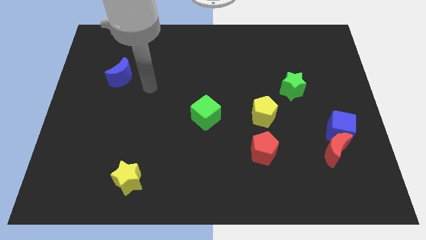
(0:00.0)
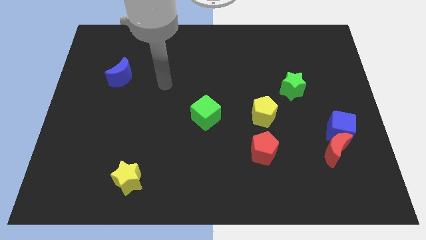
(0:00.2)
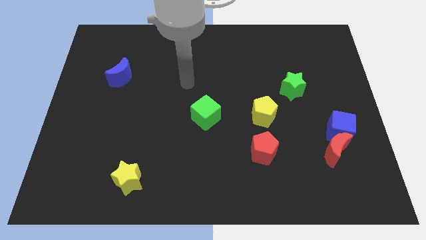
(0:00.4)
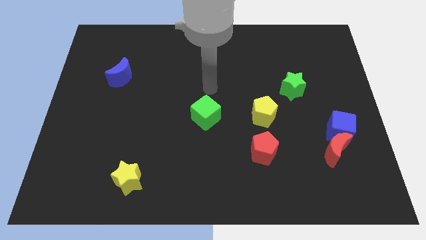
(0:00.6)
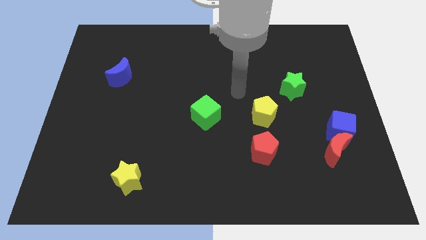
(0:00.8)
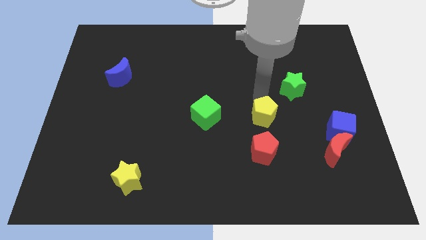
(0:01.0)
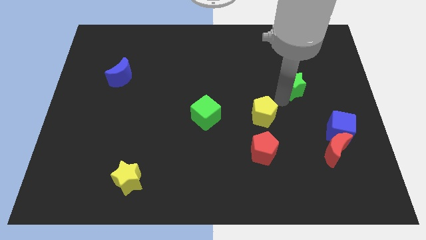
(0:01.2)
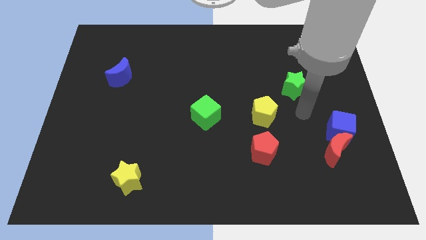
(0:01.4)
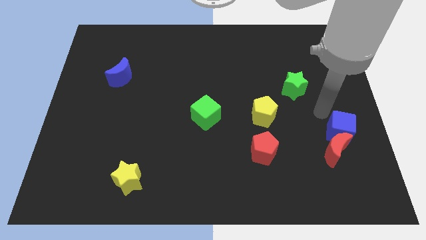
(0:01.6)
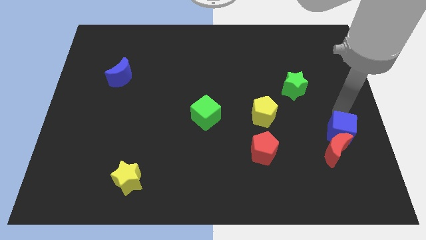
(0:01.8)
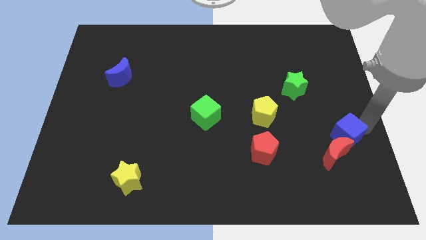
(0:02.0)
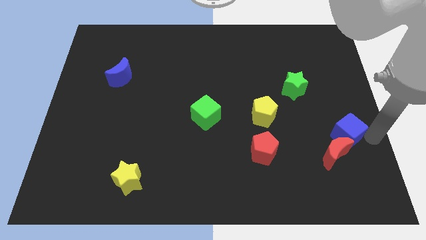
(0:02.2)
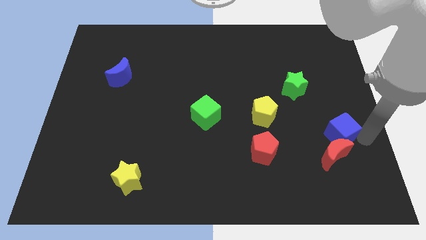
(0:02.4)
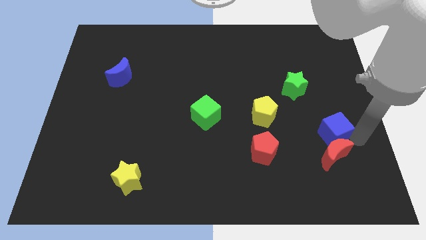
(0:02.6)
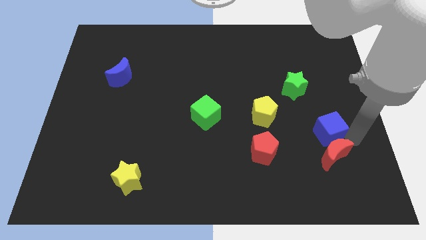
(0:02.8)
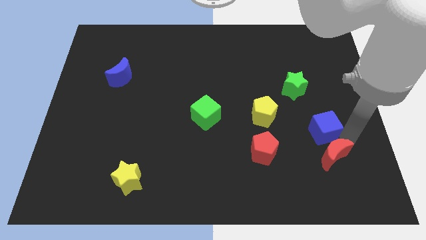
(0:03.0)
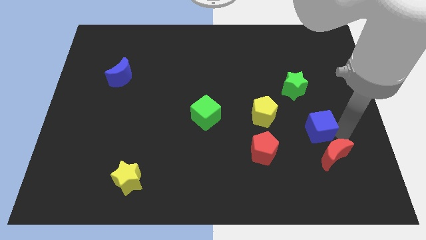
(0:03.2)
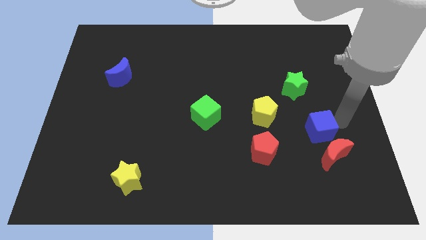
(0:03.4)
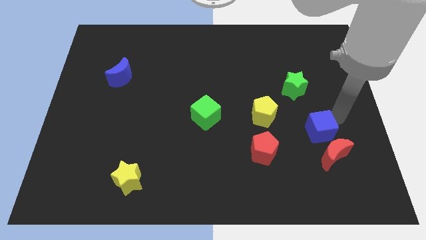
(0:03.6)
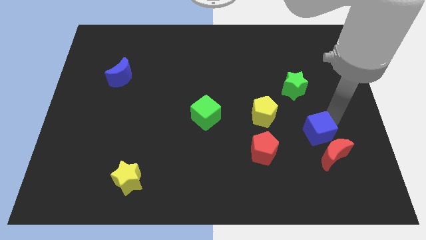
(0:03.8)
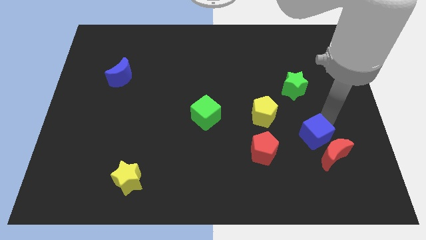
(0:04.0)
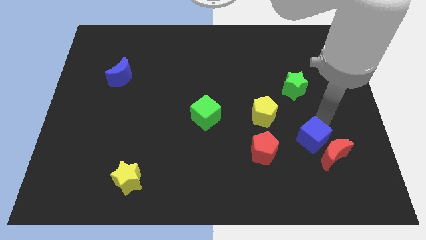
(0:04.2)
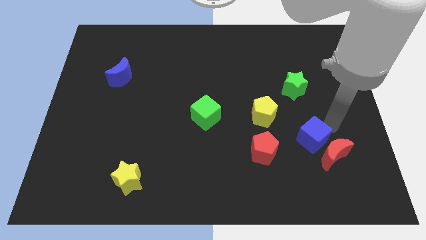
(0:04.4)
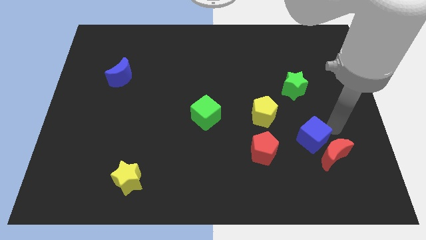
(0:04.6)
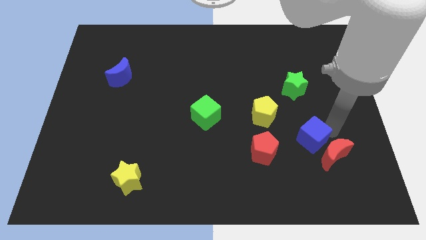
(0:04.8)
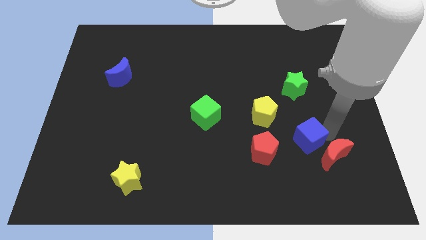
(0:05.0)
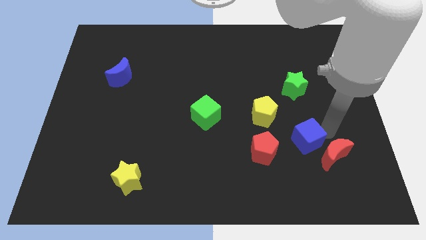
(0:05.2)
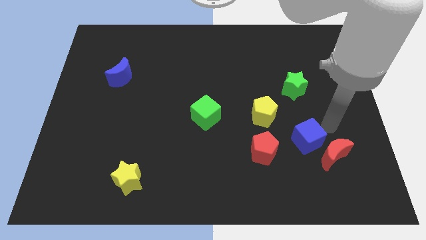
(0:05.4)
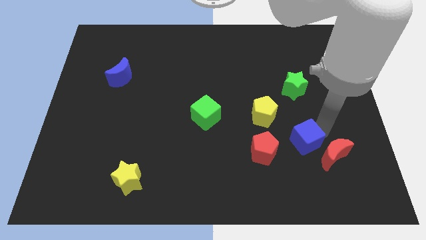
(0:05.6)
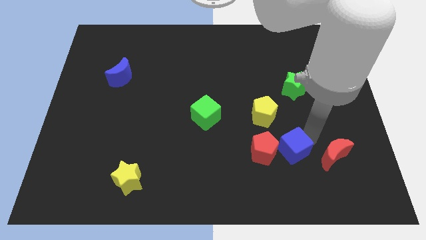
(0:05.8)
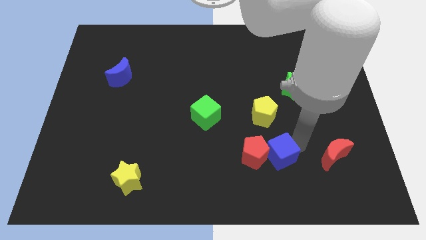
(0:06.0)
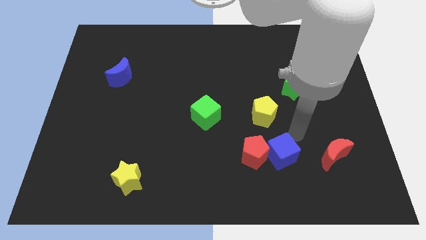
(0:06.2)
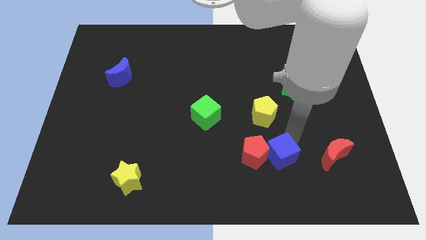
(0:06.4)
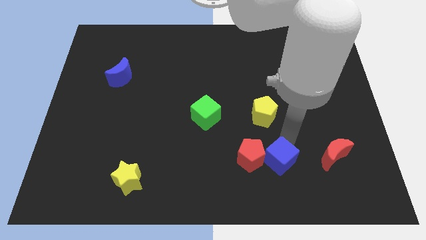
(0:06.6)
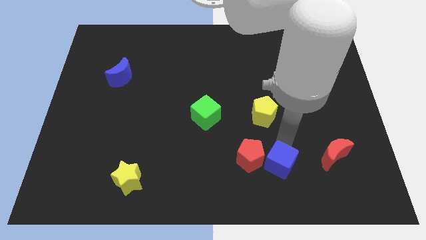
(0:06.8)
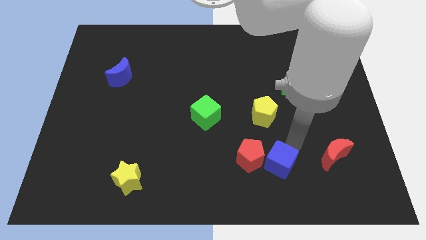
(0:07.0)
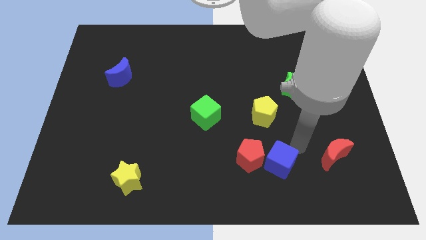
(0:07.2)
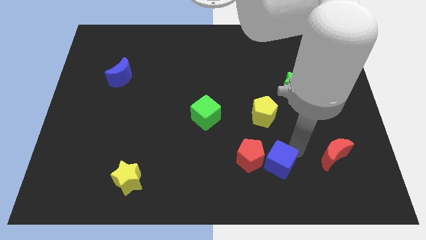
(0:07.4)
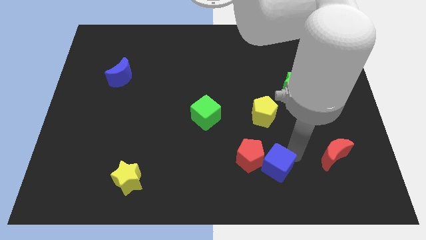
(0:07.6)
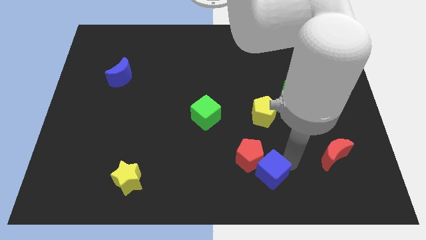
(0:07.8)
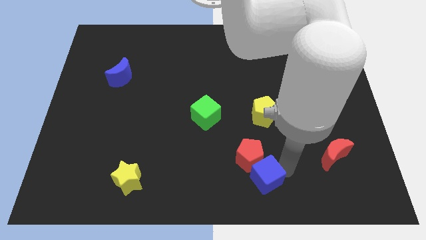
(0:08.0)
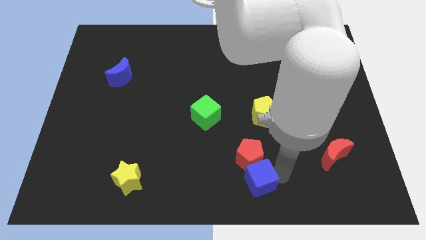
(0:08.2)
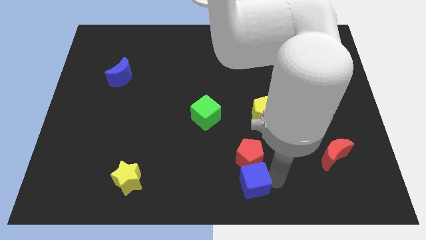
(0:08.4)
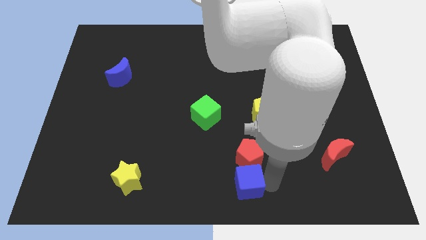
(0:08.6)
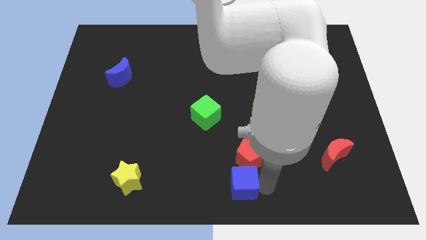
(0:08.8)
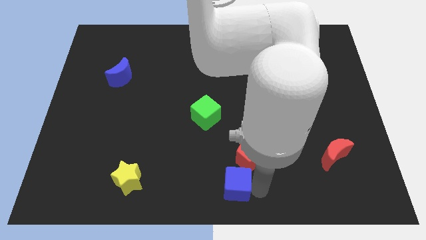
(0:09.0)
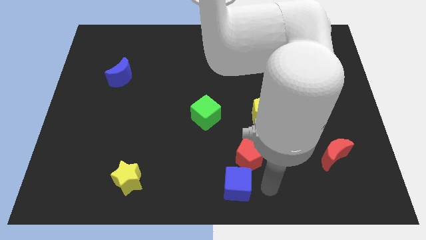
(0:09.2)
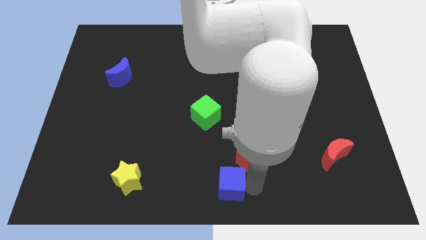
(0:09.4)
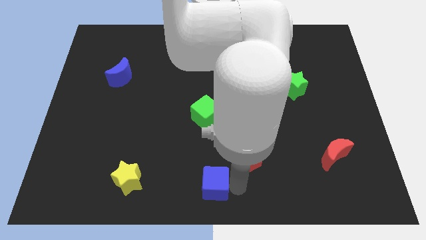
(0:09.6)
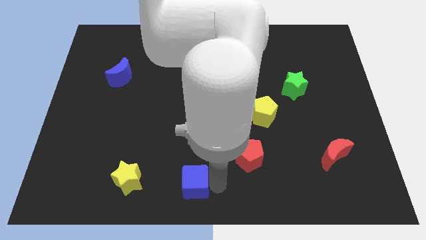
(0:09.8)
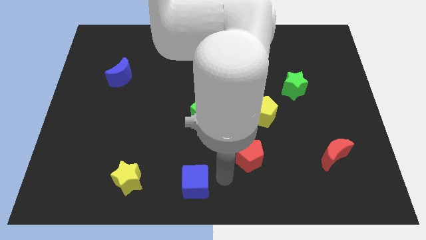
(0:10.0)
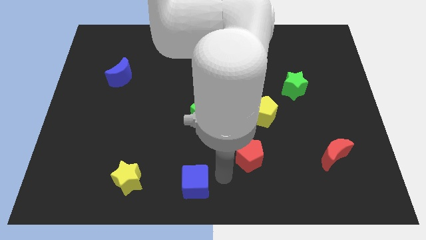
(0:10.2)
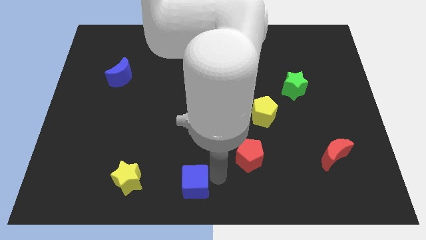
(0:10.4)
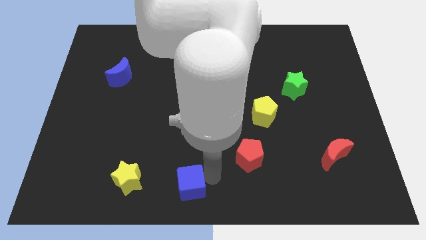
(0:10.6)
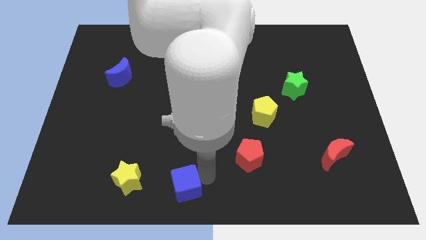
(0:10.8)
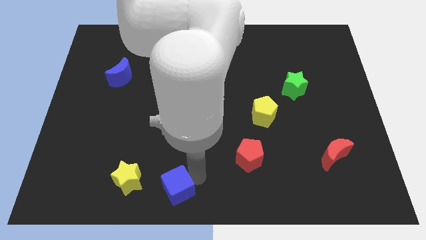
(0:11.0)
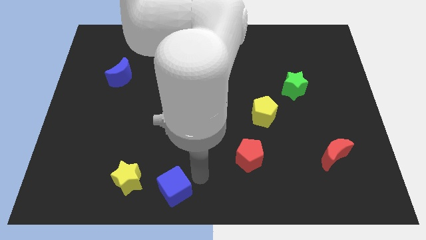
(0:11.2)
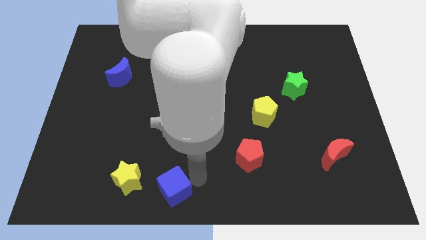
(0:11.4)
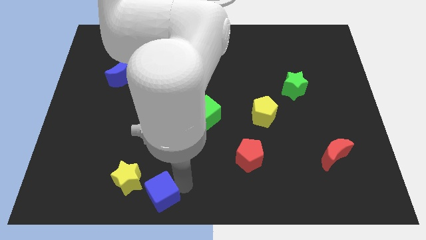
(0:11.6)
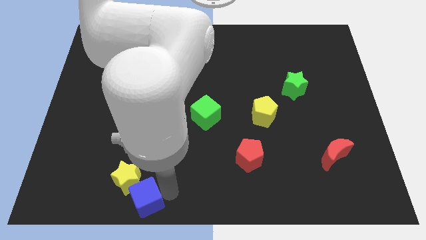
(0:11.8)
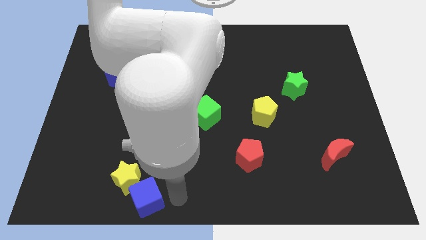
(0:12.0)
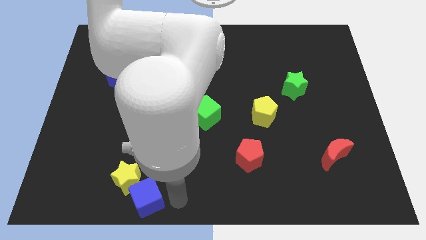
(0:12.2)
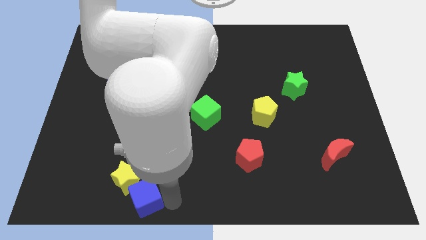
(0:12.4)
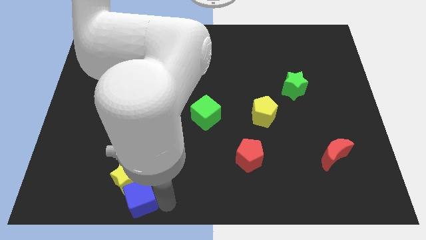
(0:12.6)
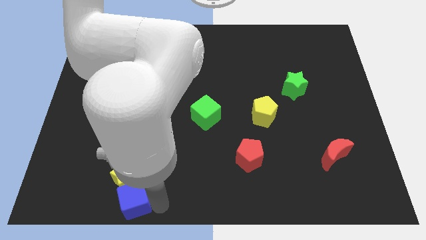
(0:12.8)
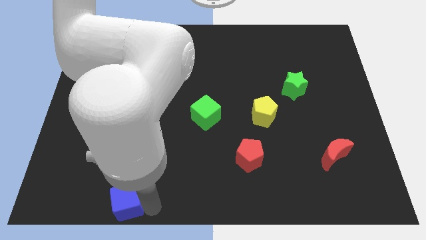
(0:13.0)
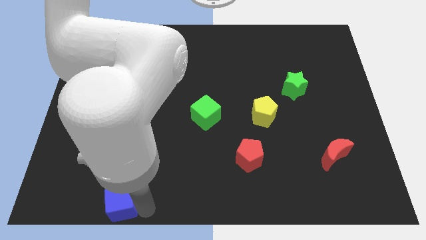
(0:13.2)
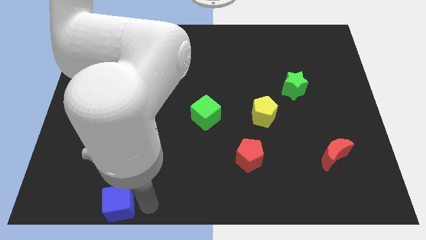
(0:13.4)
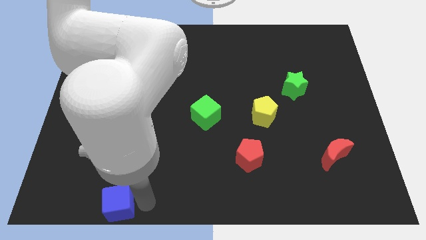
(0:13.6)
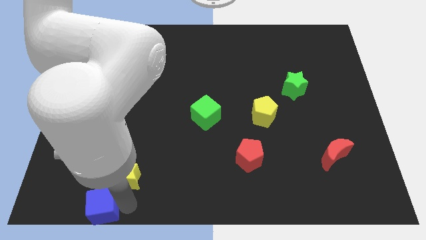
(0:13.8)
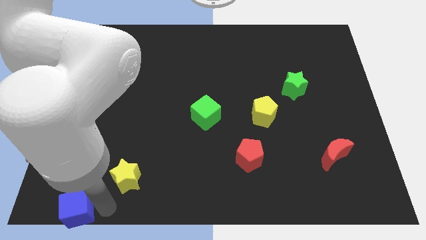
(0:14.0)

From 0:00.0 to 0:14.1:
put the blue cube to the lower left corner
